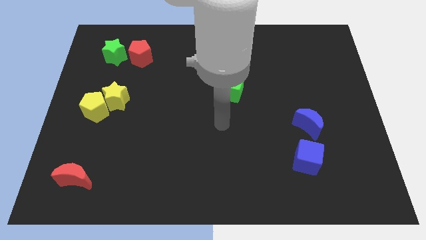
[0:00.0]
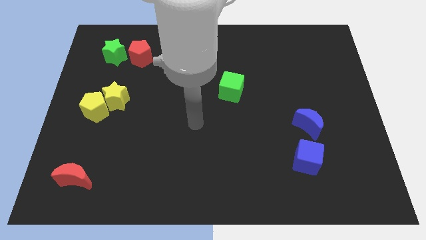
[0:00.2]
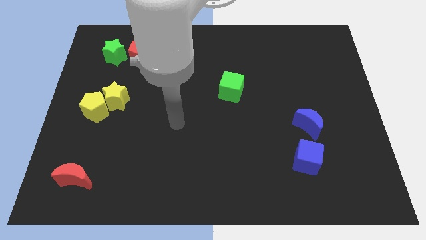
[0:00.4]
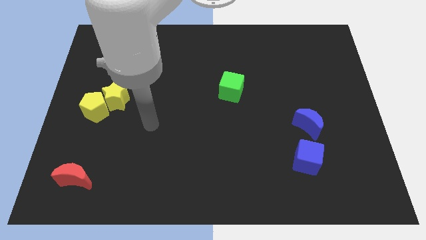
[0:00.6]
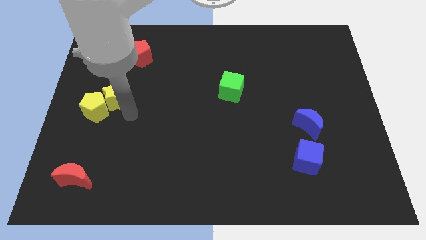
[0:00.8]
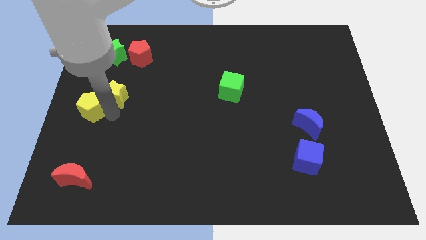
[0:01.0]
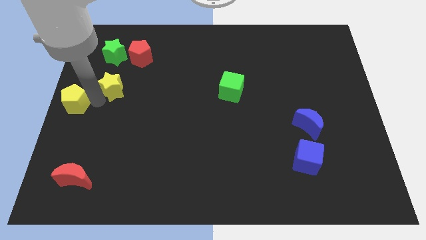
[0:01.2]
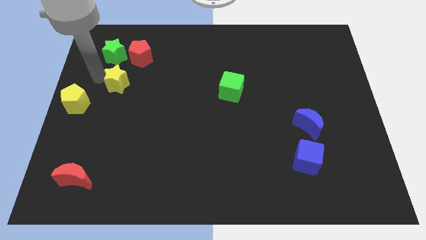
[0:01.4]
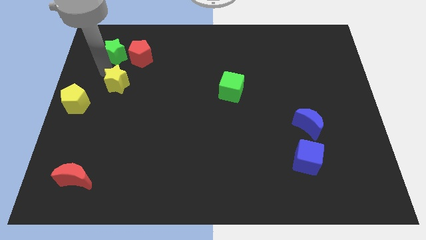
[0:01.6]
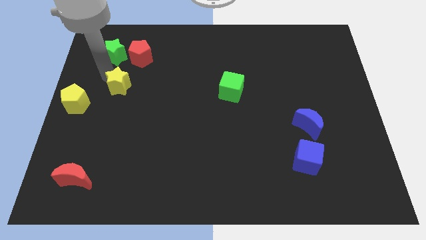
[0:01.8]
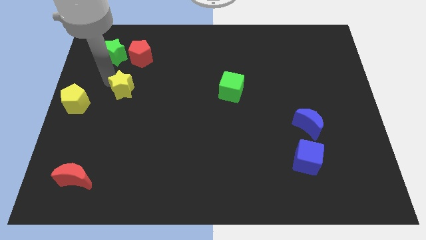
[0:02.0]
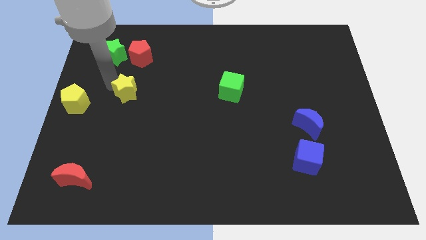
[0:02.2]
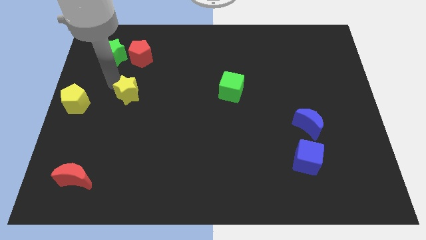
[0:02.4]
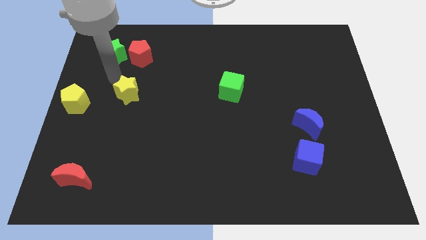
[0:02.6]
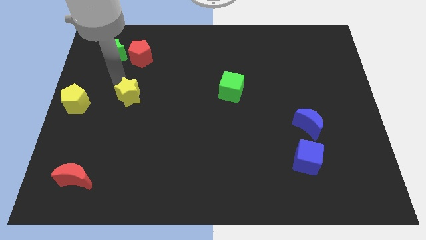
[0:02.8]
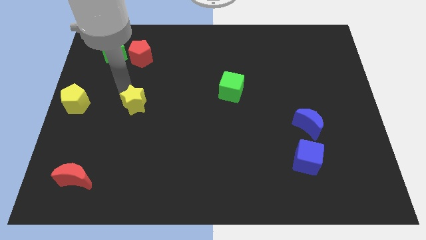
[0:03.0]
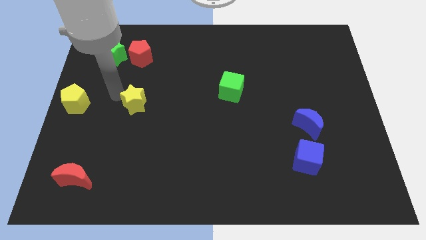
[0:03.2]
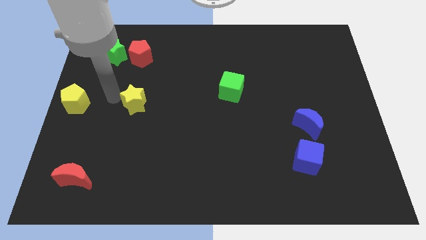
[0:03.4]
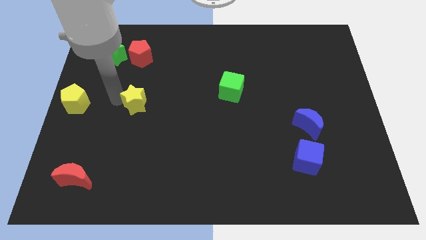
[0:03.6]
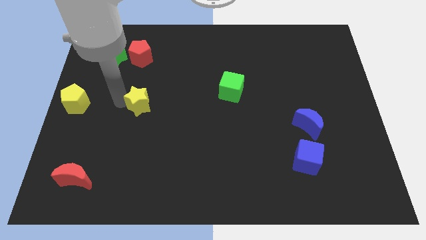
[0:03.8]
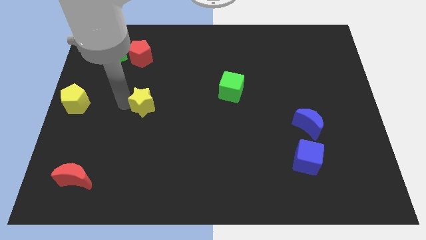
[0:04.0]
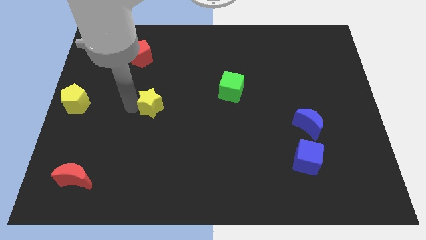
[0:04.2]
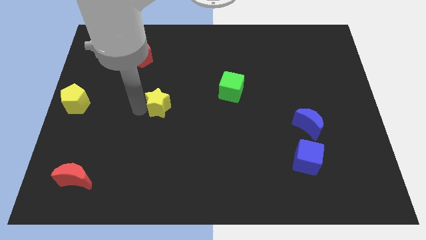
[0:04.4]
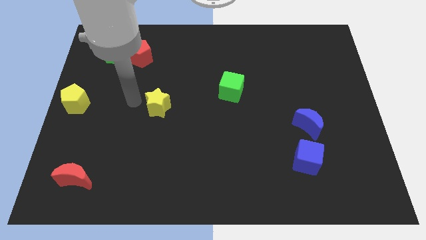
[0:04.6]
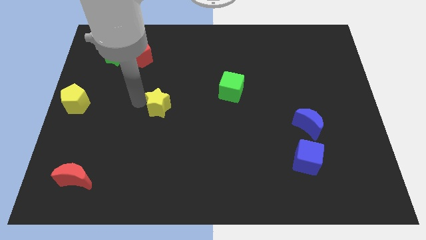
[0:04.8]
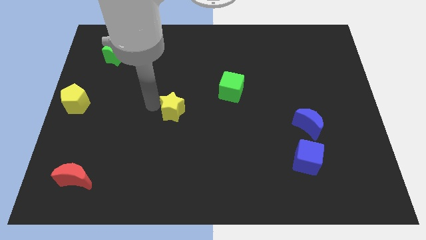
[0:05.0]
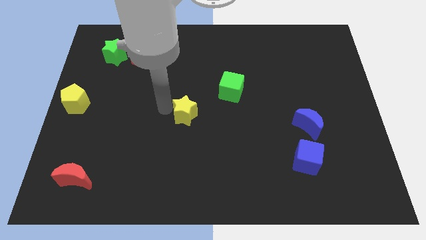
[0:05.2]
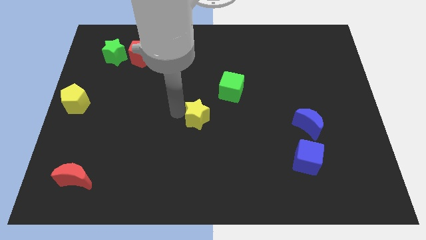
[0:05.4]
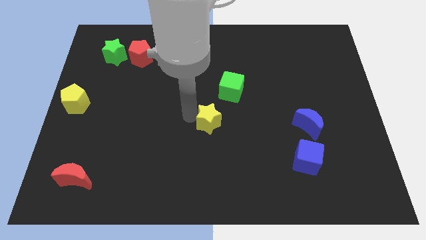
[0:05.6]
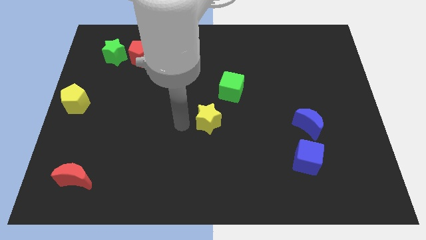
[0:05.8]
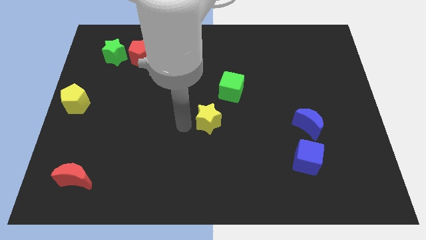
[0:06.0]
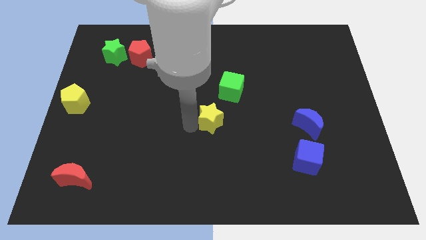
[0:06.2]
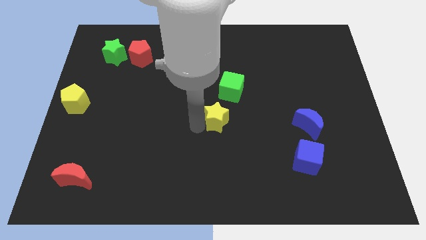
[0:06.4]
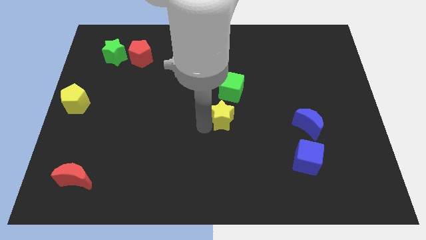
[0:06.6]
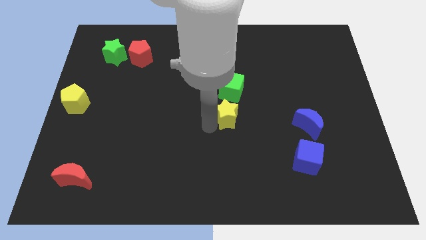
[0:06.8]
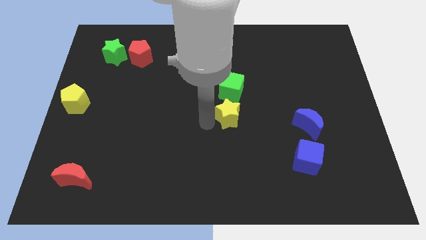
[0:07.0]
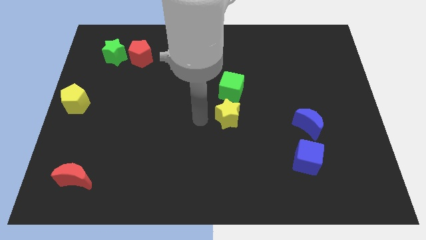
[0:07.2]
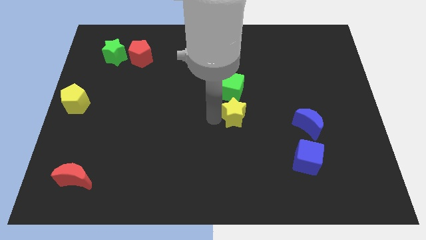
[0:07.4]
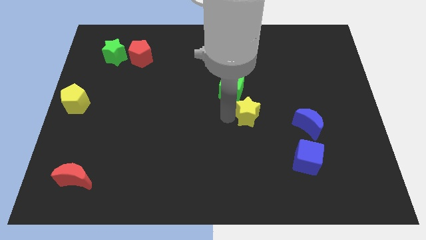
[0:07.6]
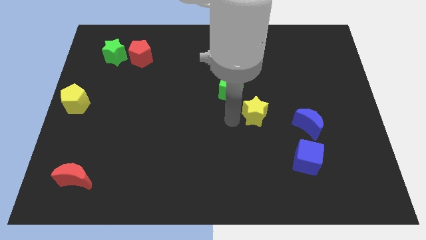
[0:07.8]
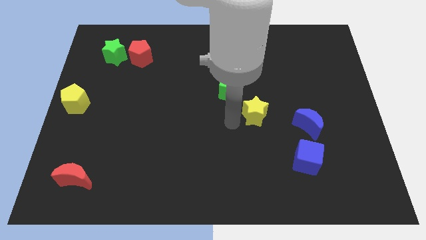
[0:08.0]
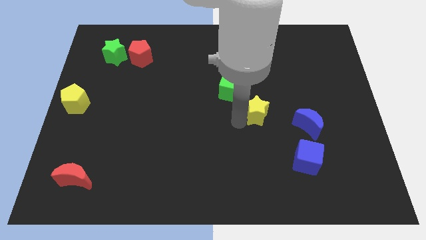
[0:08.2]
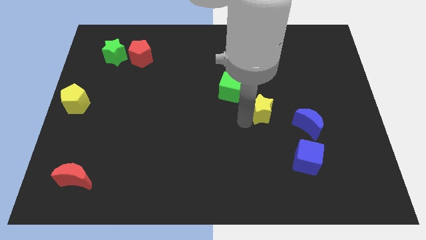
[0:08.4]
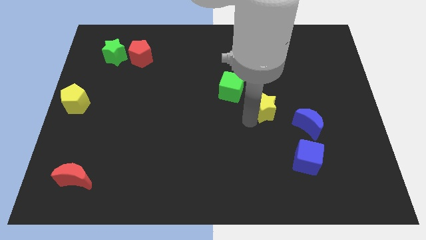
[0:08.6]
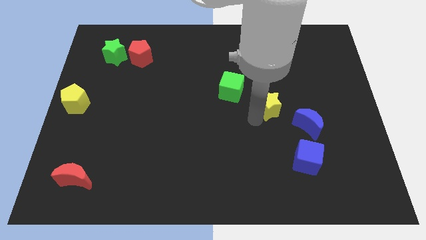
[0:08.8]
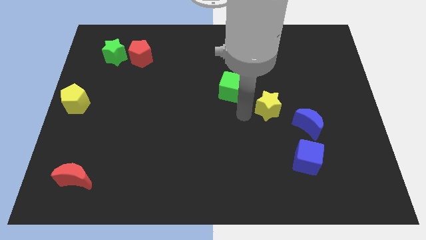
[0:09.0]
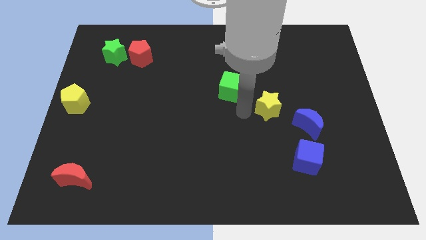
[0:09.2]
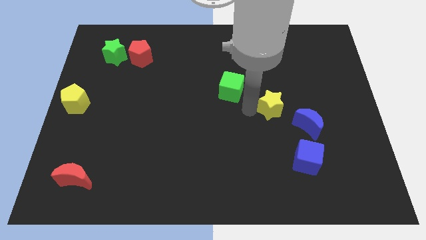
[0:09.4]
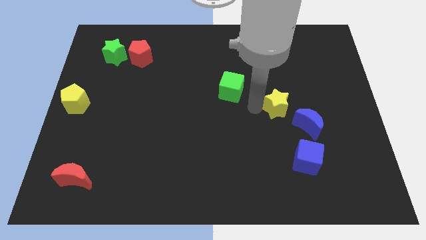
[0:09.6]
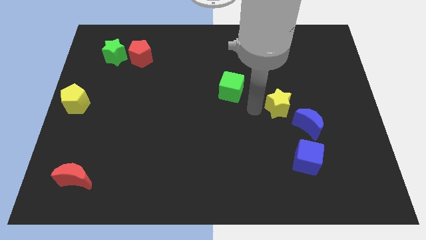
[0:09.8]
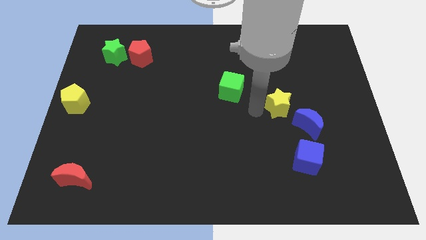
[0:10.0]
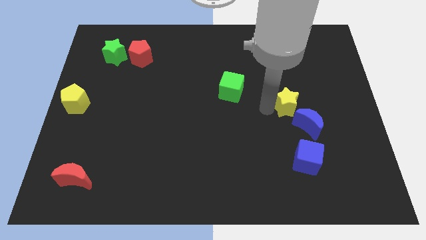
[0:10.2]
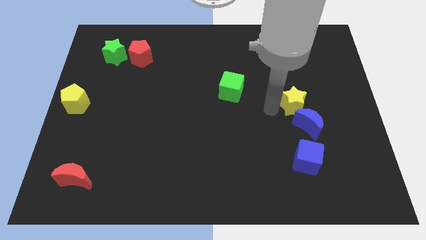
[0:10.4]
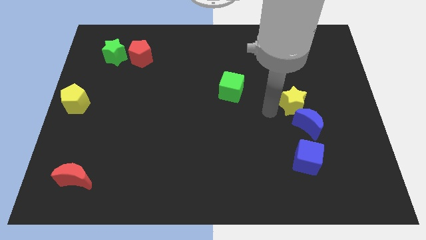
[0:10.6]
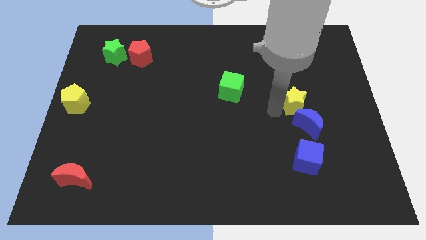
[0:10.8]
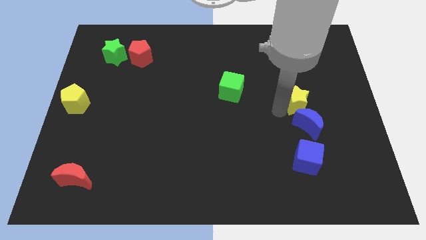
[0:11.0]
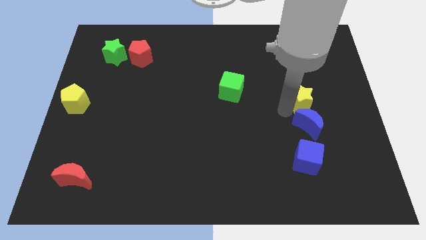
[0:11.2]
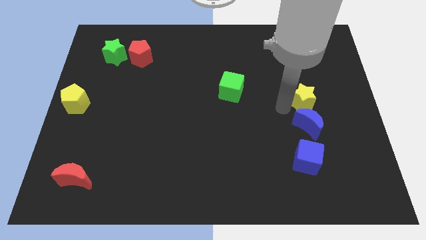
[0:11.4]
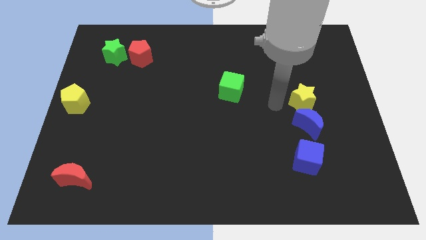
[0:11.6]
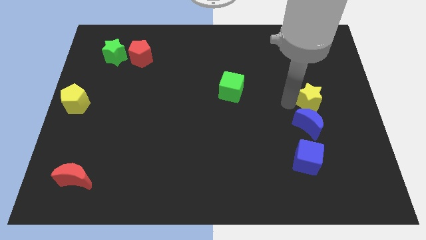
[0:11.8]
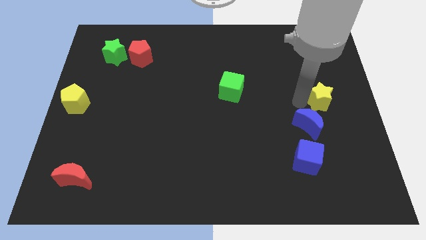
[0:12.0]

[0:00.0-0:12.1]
slide the yellow star to the right side

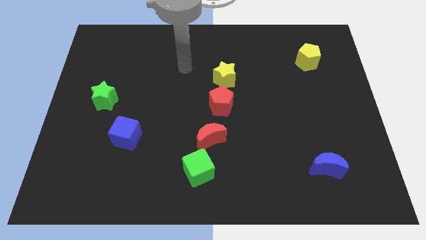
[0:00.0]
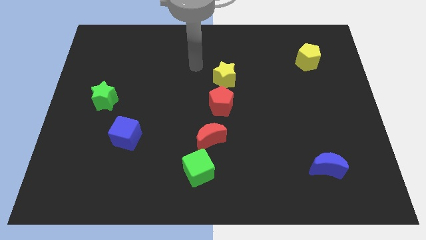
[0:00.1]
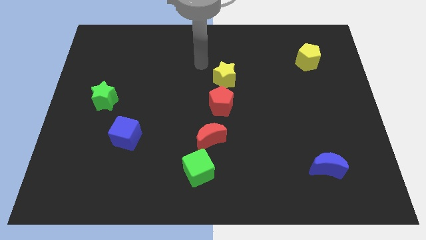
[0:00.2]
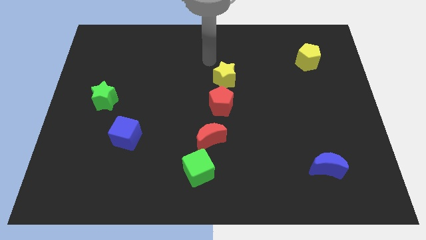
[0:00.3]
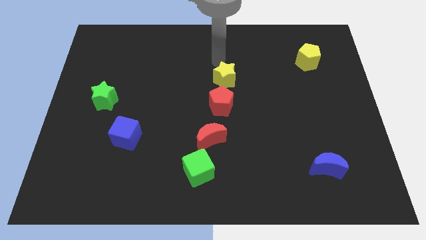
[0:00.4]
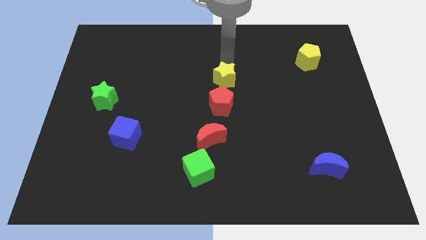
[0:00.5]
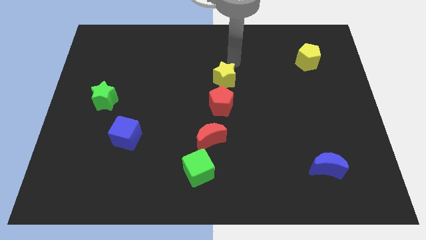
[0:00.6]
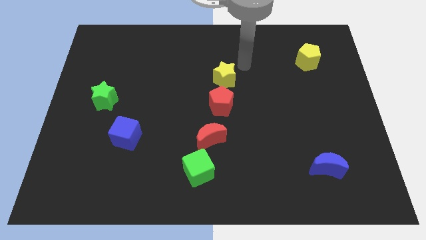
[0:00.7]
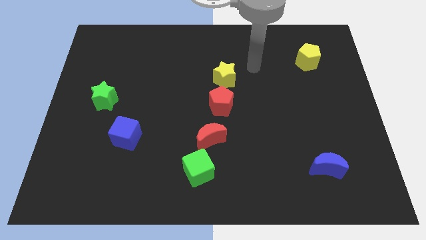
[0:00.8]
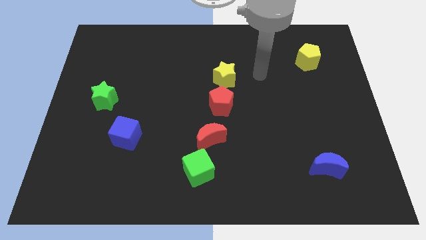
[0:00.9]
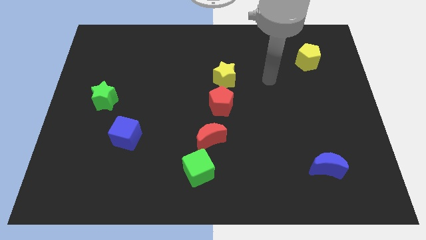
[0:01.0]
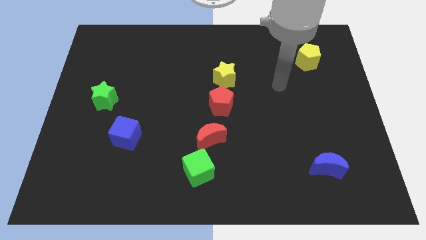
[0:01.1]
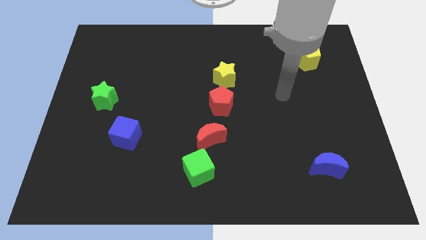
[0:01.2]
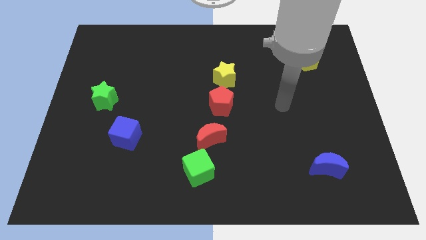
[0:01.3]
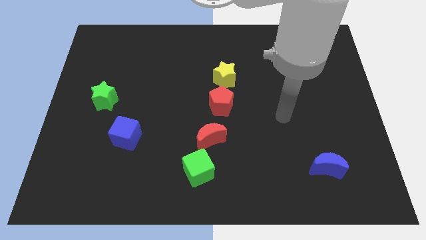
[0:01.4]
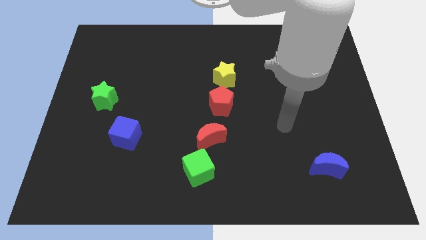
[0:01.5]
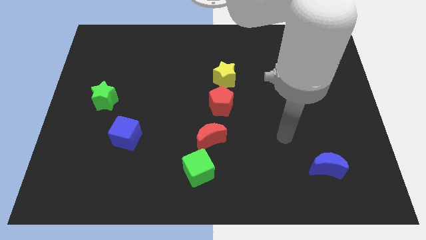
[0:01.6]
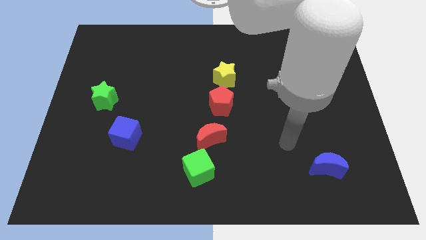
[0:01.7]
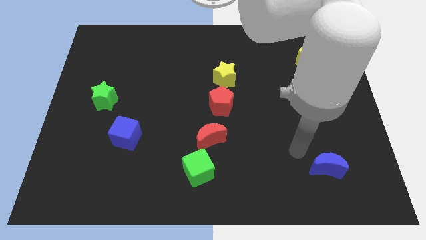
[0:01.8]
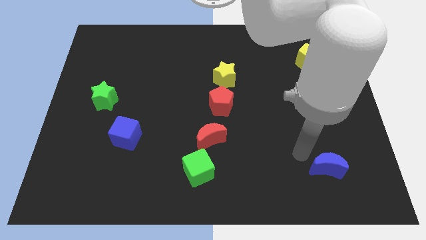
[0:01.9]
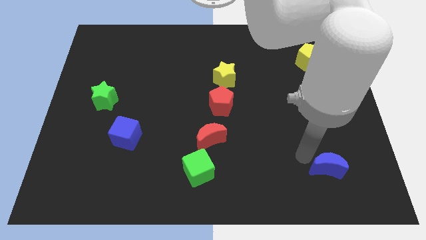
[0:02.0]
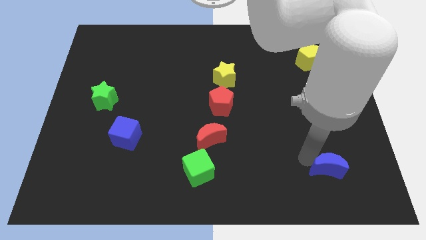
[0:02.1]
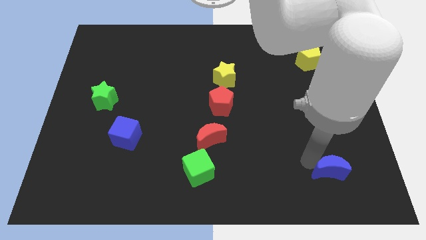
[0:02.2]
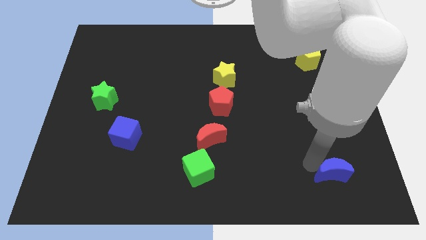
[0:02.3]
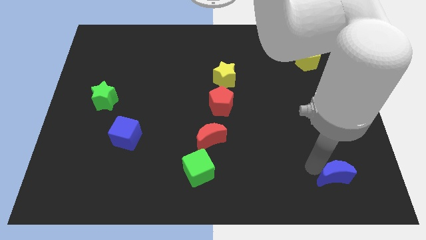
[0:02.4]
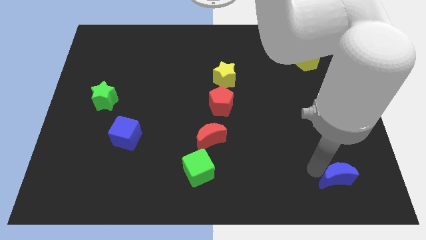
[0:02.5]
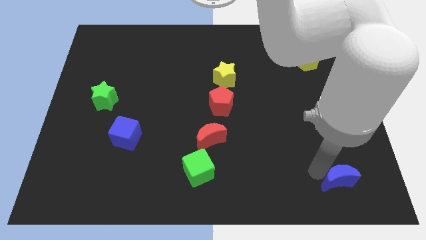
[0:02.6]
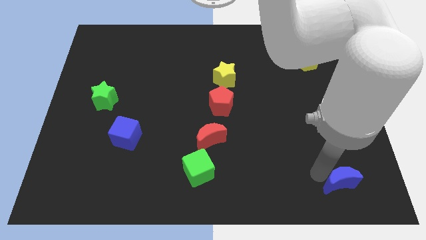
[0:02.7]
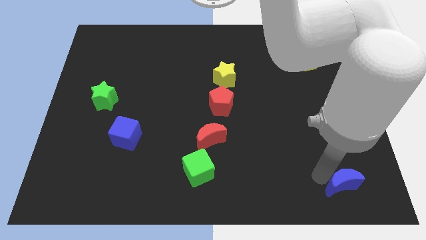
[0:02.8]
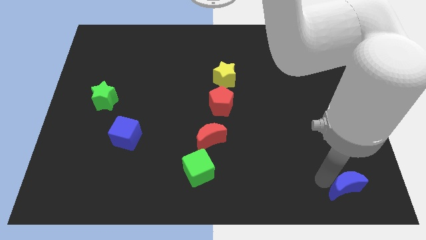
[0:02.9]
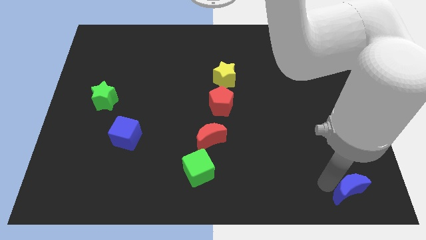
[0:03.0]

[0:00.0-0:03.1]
move the blue moon to the bottom right corner
